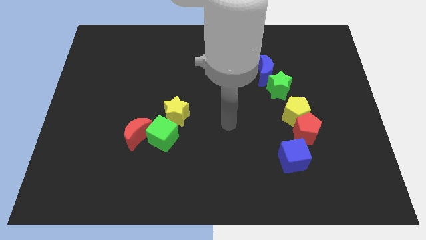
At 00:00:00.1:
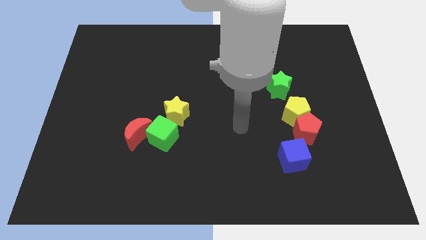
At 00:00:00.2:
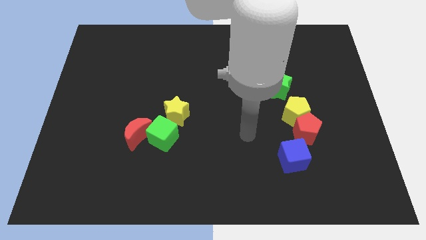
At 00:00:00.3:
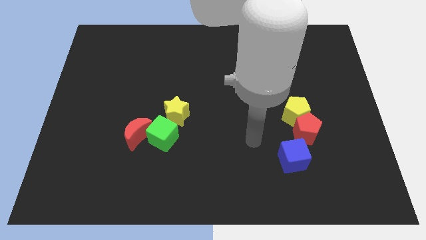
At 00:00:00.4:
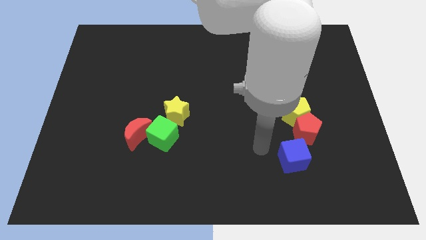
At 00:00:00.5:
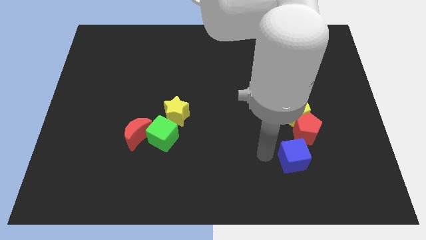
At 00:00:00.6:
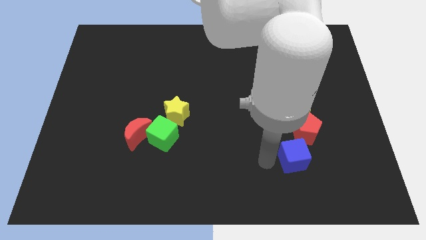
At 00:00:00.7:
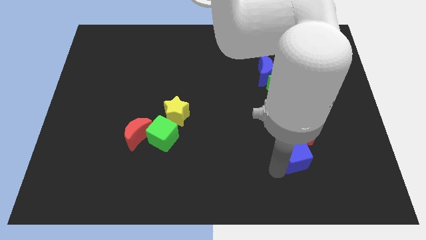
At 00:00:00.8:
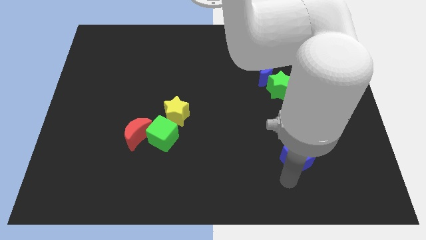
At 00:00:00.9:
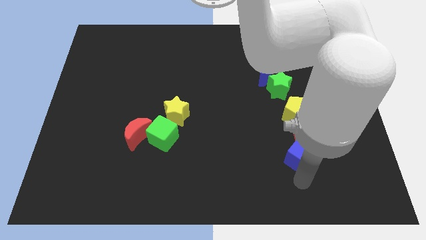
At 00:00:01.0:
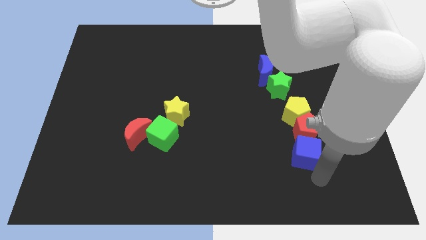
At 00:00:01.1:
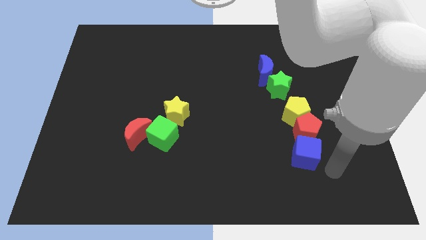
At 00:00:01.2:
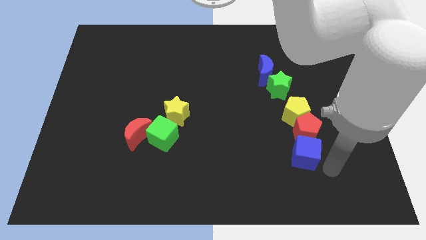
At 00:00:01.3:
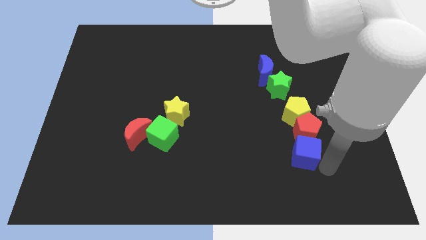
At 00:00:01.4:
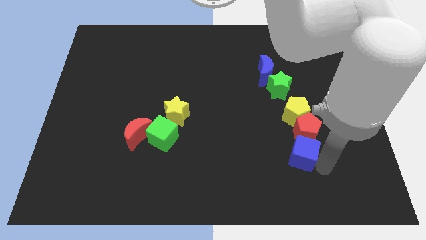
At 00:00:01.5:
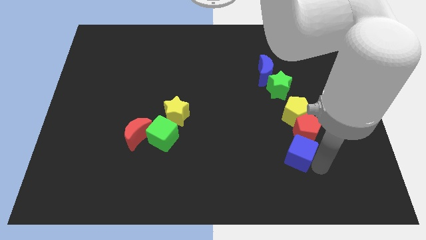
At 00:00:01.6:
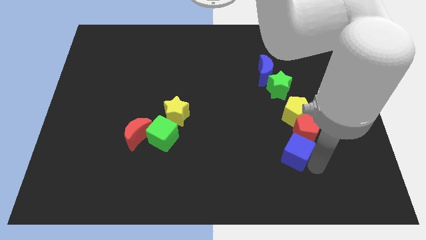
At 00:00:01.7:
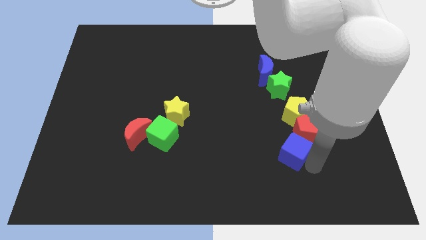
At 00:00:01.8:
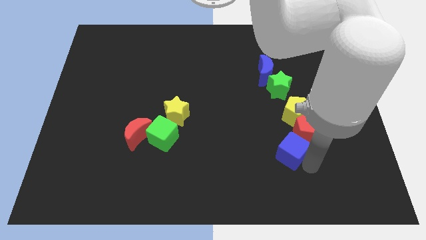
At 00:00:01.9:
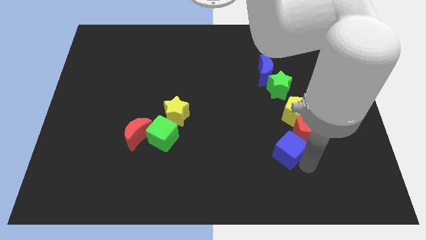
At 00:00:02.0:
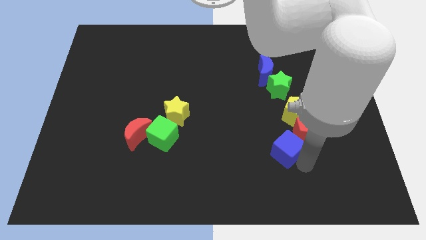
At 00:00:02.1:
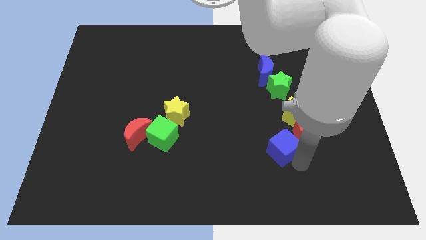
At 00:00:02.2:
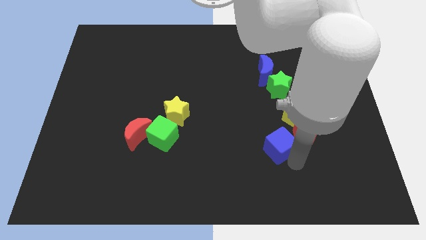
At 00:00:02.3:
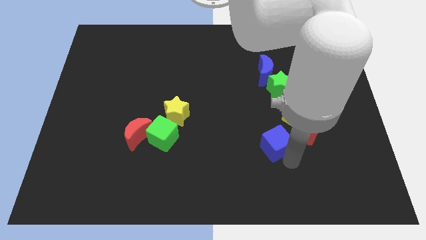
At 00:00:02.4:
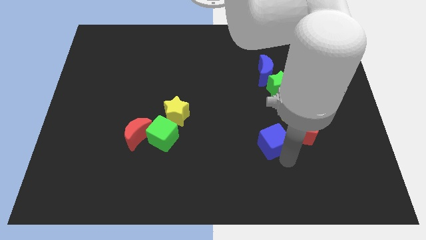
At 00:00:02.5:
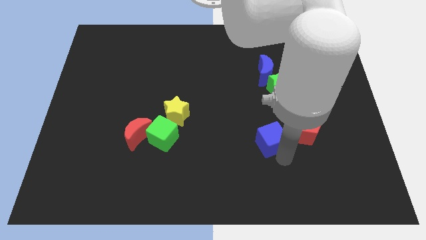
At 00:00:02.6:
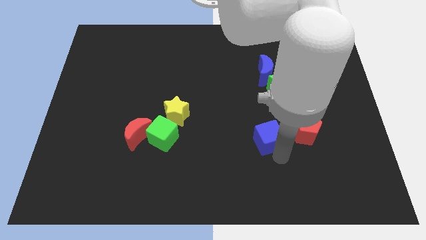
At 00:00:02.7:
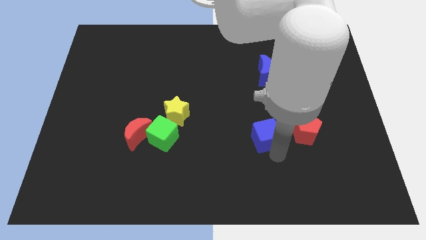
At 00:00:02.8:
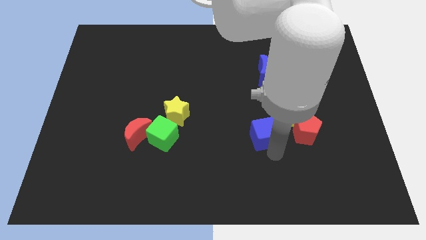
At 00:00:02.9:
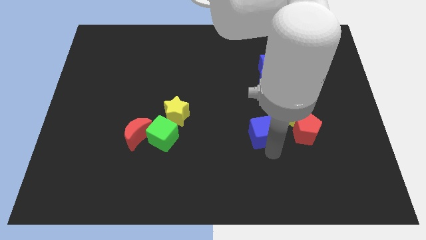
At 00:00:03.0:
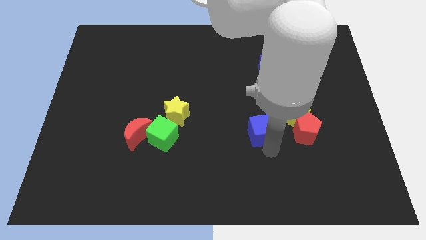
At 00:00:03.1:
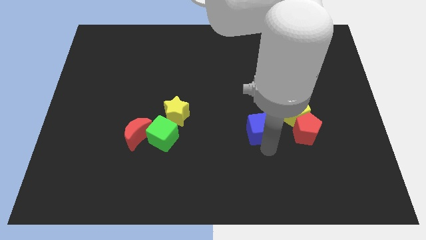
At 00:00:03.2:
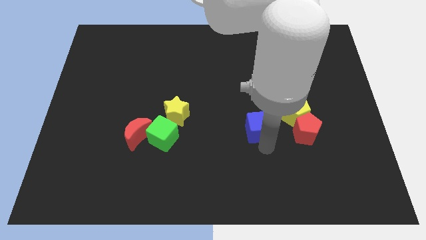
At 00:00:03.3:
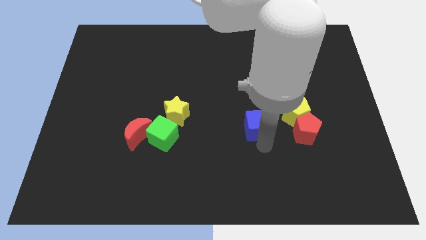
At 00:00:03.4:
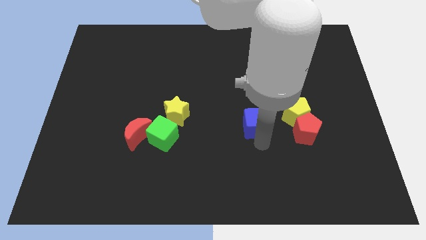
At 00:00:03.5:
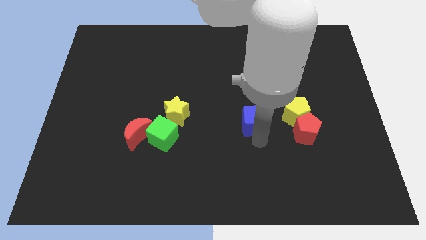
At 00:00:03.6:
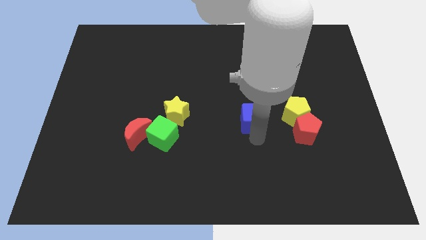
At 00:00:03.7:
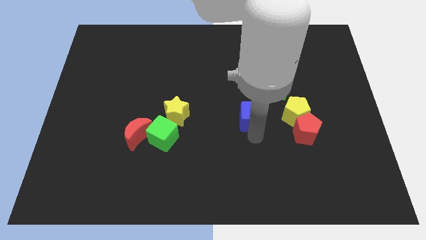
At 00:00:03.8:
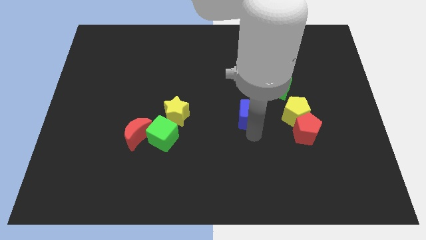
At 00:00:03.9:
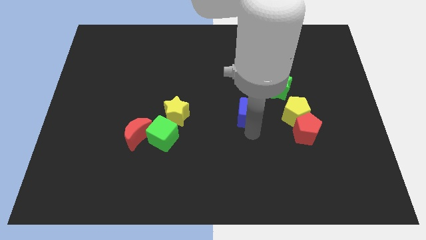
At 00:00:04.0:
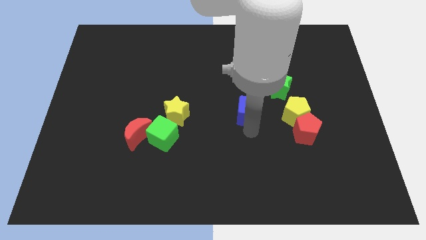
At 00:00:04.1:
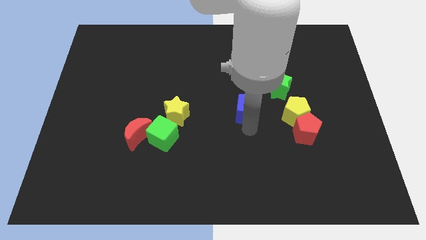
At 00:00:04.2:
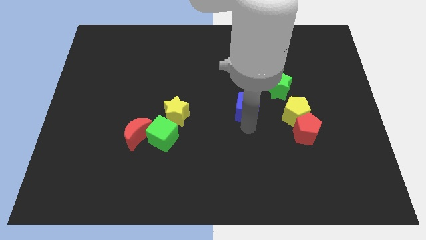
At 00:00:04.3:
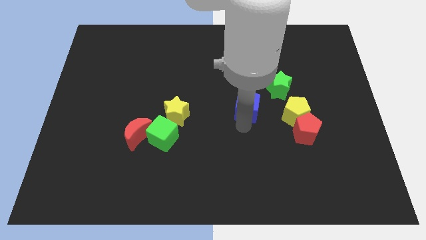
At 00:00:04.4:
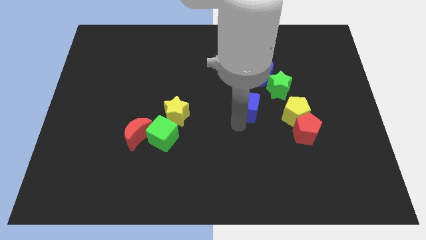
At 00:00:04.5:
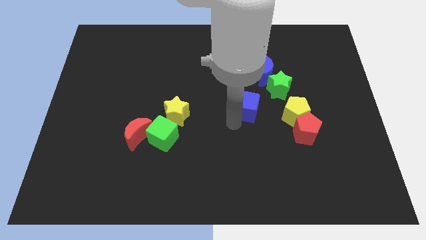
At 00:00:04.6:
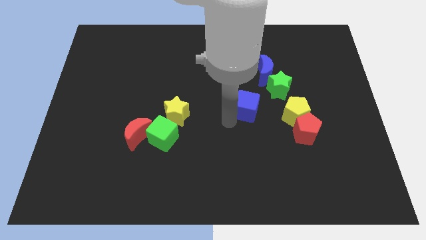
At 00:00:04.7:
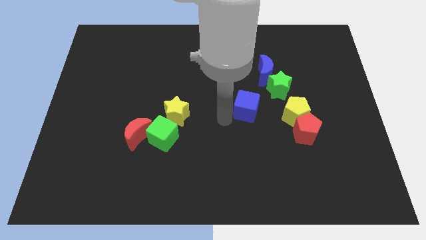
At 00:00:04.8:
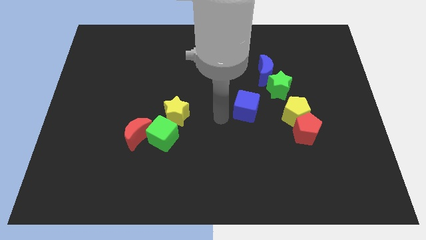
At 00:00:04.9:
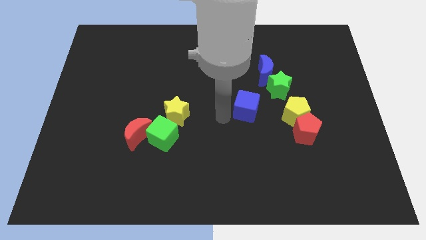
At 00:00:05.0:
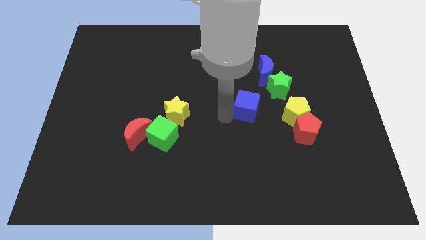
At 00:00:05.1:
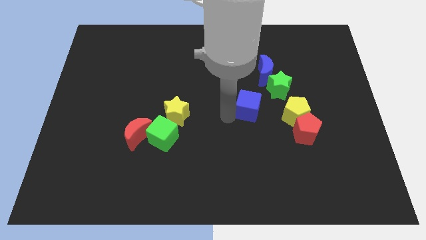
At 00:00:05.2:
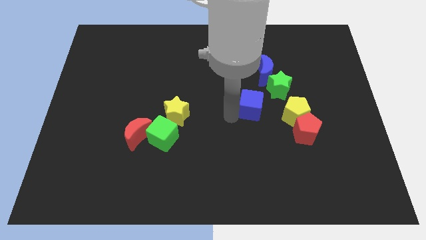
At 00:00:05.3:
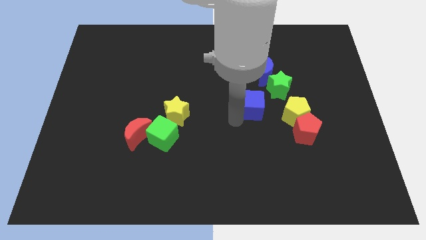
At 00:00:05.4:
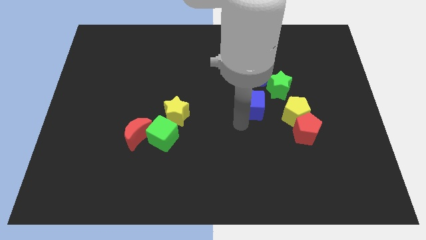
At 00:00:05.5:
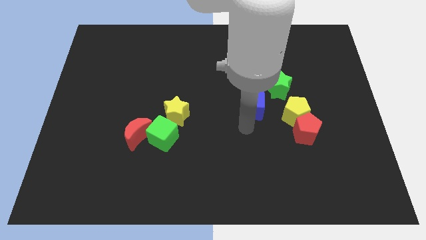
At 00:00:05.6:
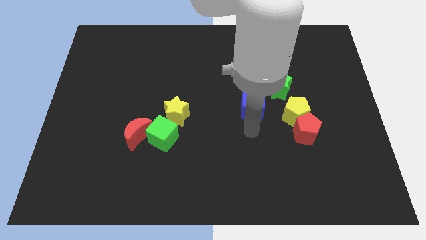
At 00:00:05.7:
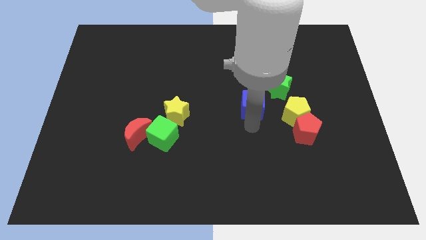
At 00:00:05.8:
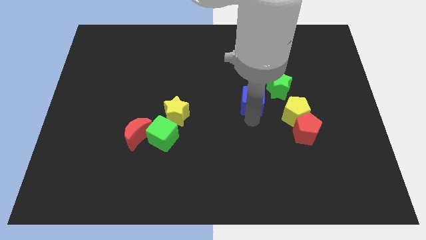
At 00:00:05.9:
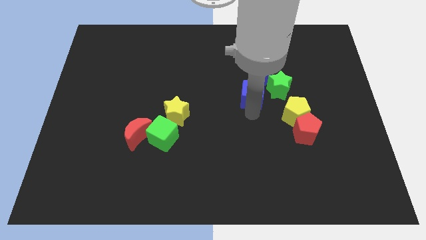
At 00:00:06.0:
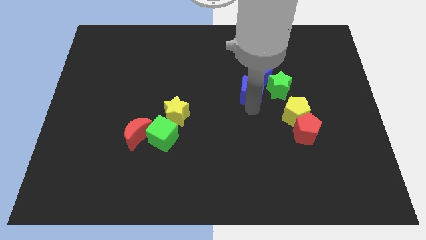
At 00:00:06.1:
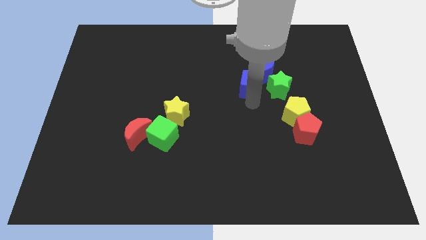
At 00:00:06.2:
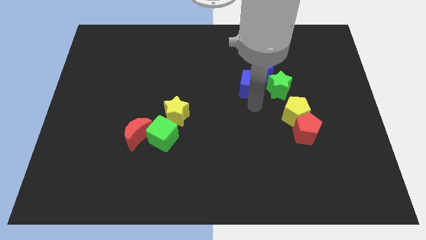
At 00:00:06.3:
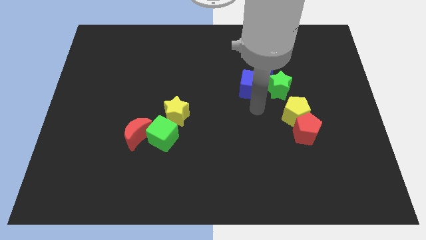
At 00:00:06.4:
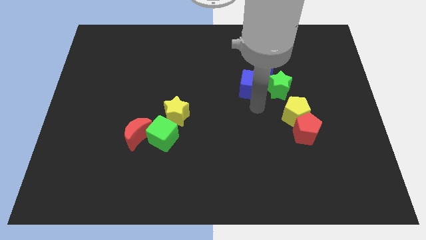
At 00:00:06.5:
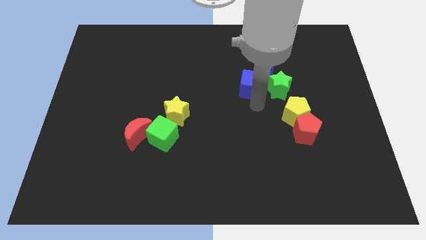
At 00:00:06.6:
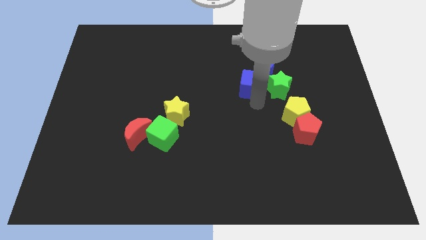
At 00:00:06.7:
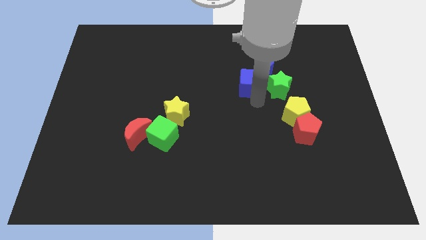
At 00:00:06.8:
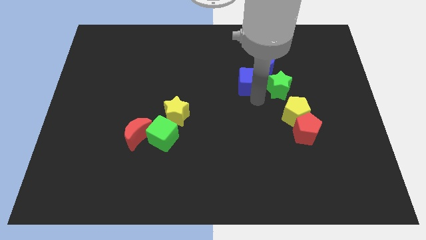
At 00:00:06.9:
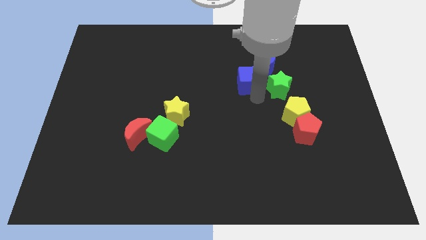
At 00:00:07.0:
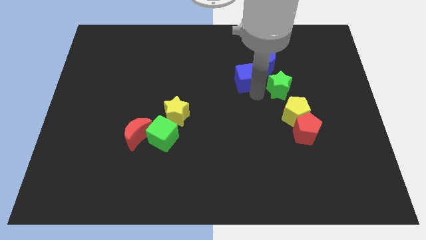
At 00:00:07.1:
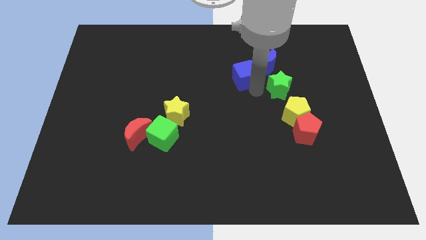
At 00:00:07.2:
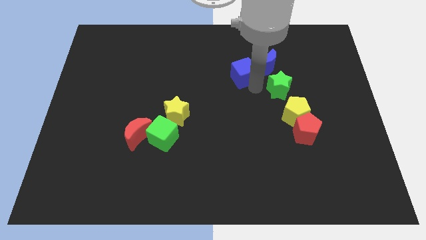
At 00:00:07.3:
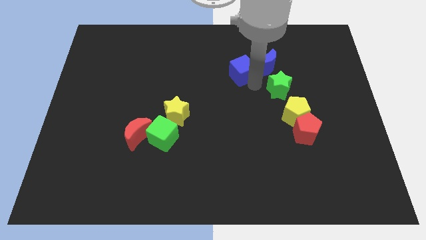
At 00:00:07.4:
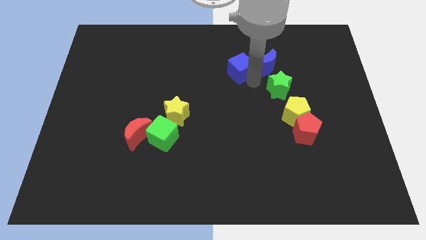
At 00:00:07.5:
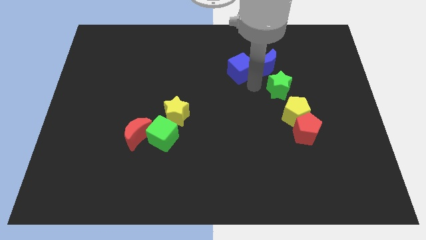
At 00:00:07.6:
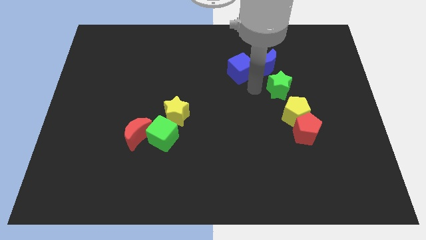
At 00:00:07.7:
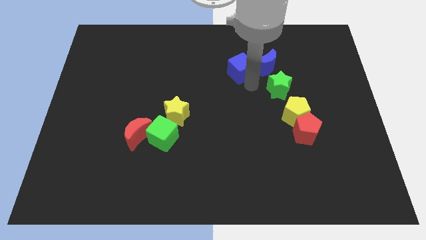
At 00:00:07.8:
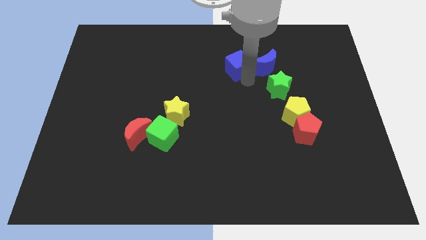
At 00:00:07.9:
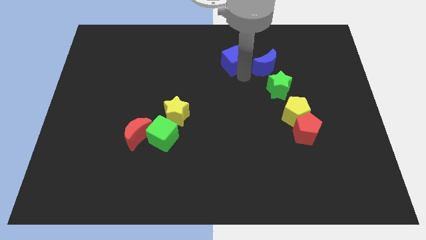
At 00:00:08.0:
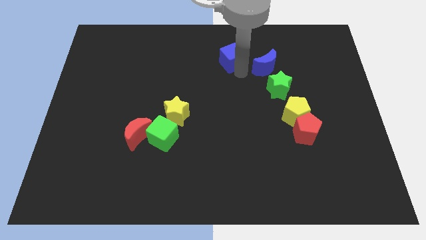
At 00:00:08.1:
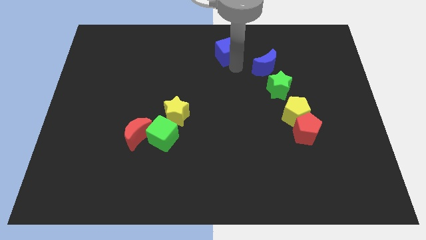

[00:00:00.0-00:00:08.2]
slide the blue cube to the top side
